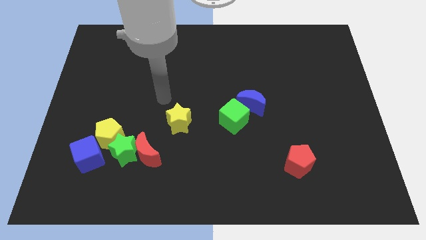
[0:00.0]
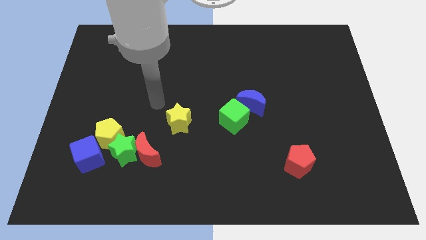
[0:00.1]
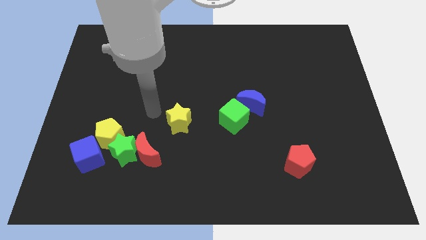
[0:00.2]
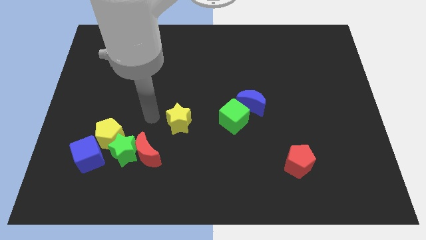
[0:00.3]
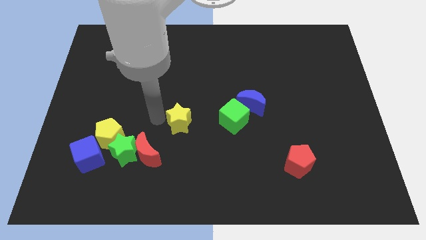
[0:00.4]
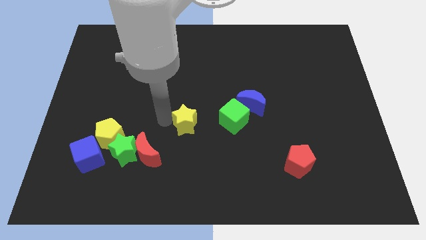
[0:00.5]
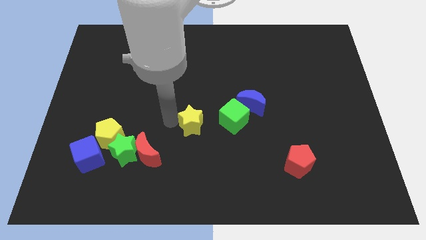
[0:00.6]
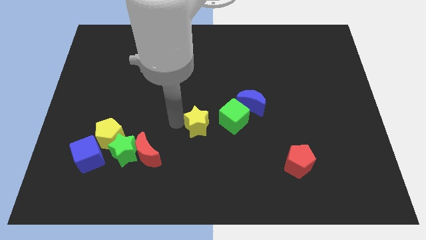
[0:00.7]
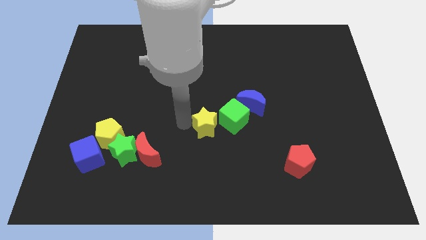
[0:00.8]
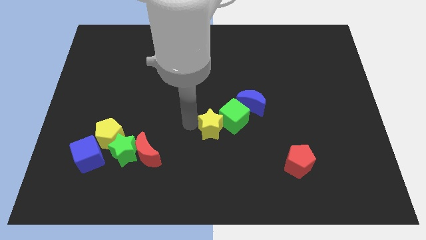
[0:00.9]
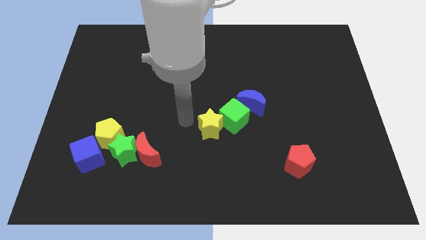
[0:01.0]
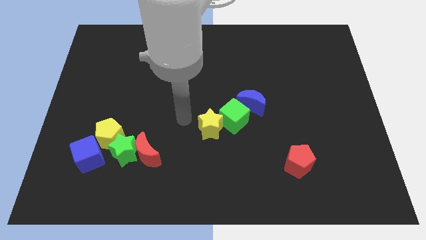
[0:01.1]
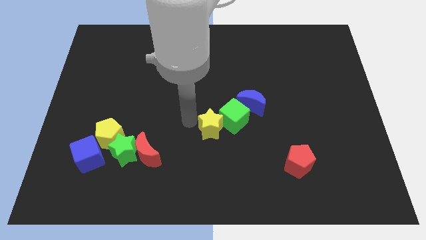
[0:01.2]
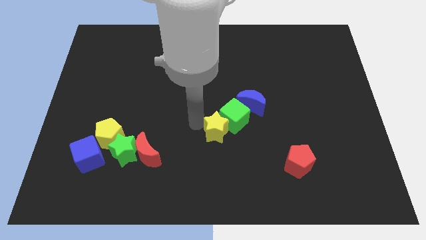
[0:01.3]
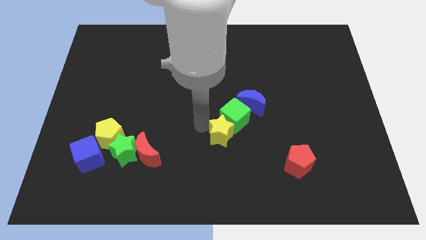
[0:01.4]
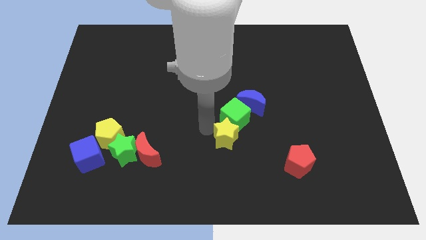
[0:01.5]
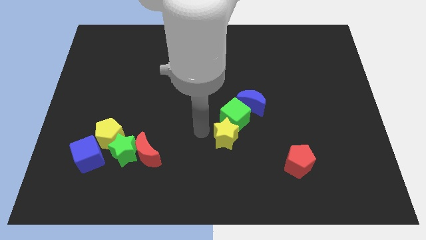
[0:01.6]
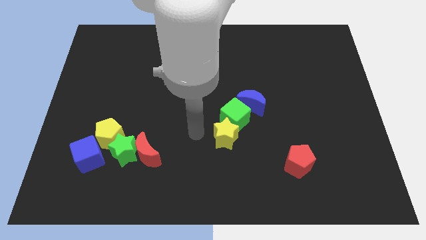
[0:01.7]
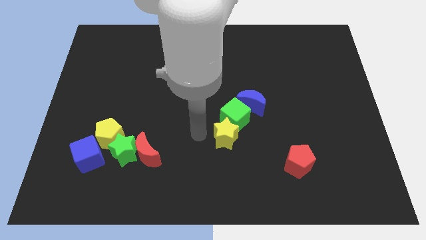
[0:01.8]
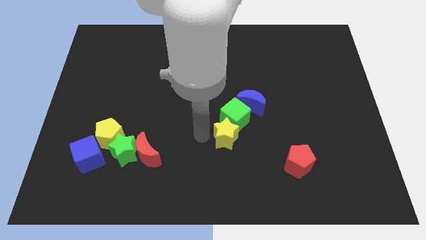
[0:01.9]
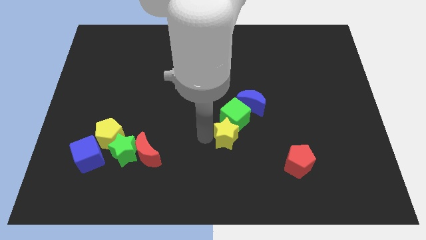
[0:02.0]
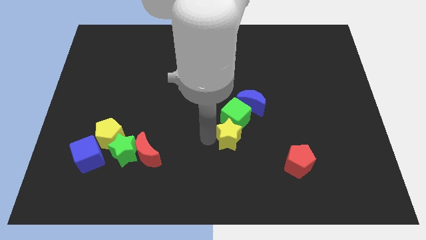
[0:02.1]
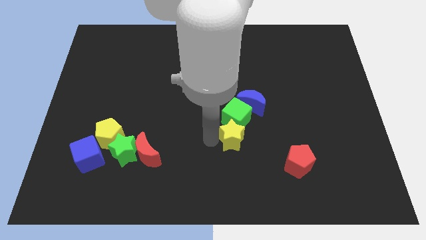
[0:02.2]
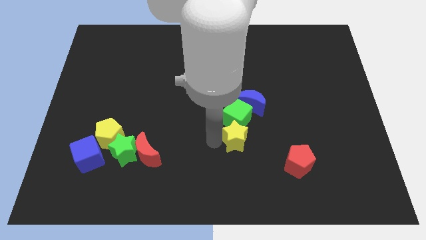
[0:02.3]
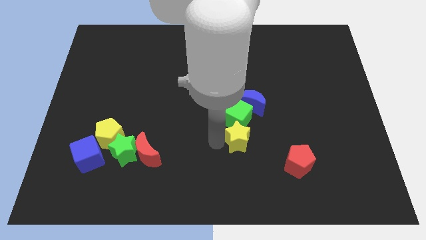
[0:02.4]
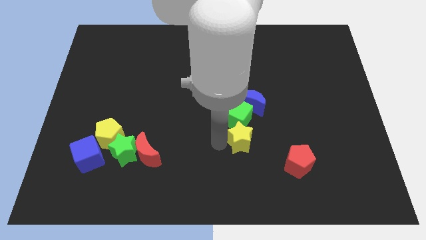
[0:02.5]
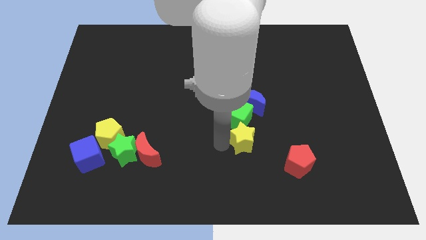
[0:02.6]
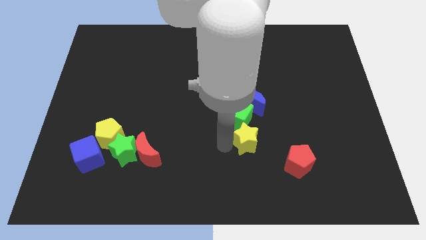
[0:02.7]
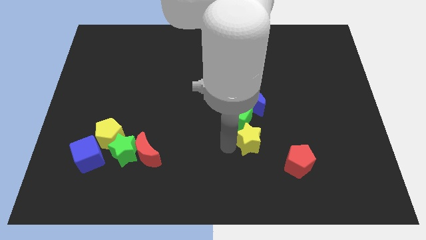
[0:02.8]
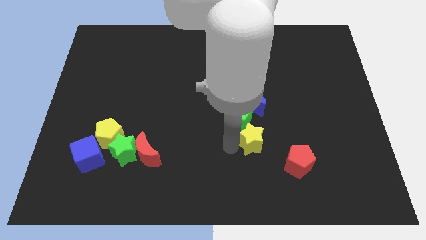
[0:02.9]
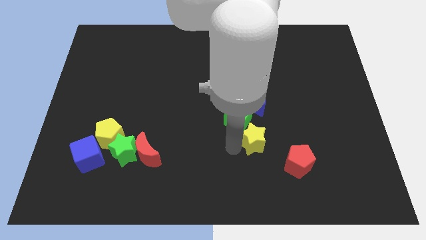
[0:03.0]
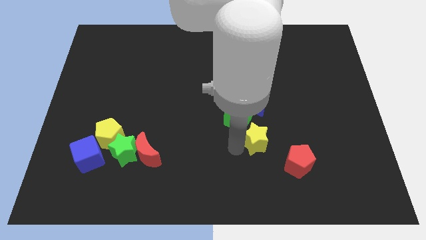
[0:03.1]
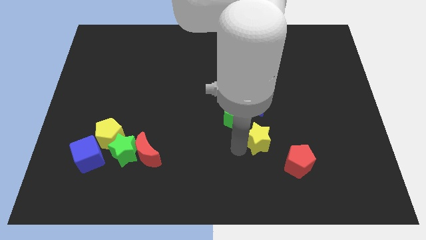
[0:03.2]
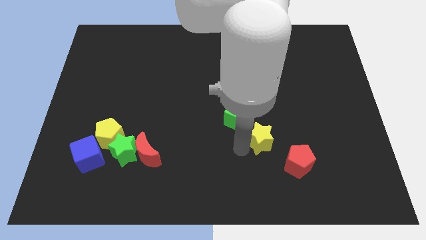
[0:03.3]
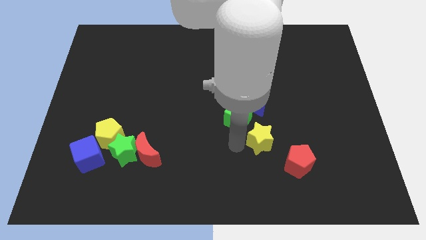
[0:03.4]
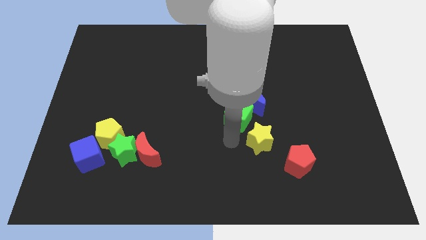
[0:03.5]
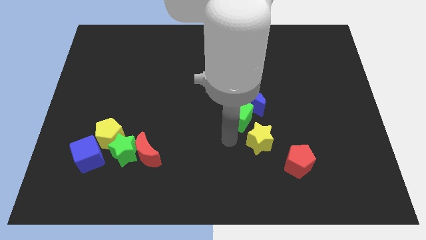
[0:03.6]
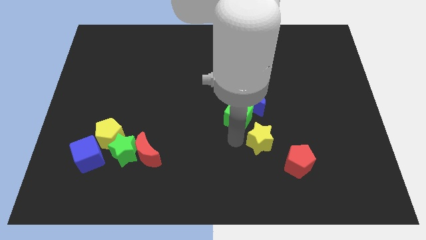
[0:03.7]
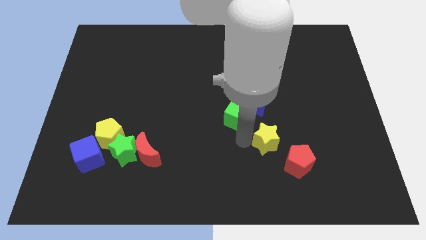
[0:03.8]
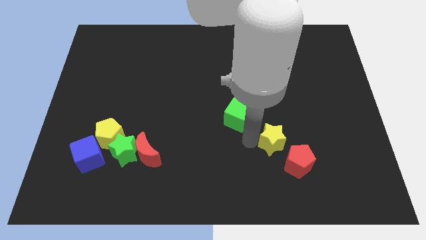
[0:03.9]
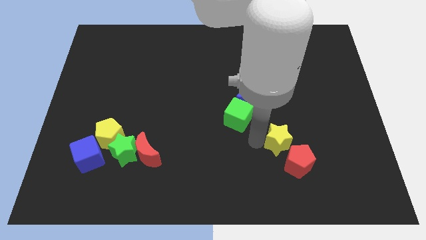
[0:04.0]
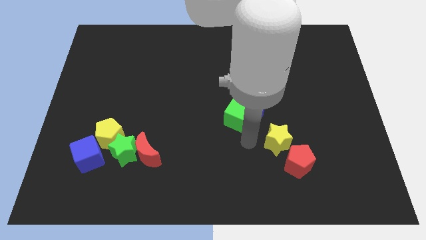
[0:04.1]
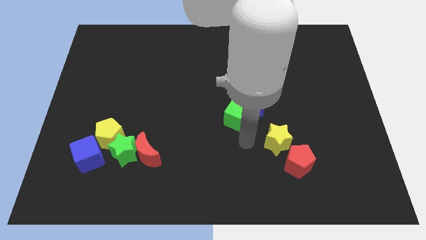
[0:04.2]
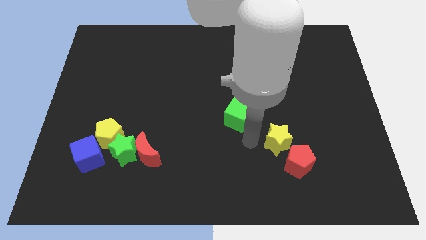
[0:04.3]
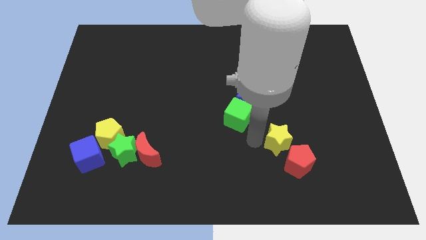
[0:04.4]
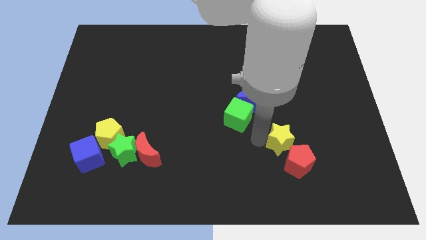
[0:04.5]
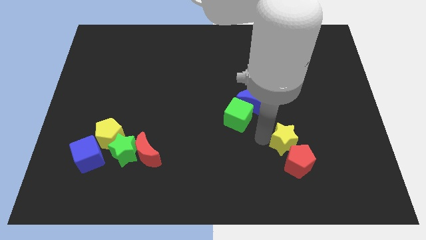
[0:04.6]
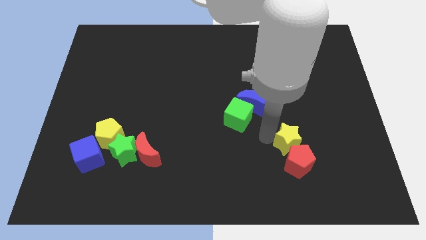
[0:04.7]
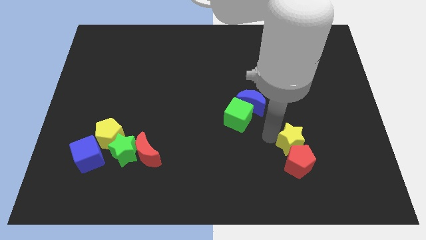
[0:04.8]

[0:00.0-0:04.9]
push the yellow star diagonally up and to the right of the red pentagon

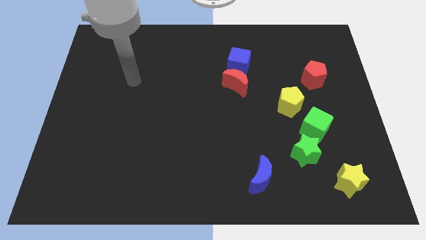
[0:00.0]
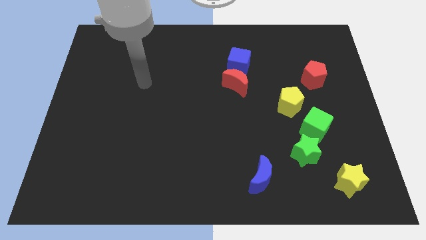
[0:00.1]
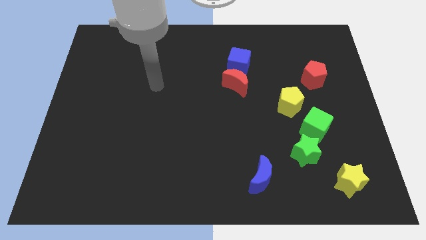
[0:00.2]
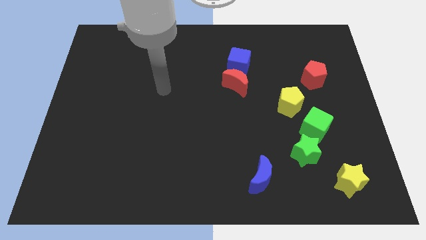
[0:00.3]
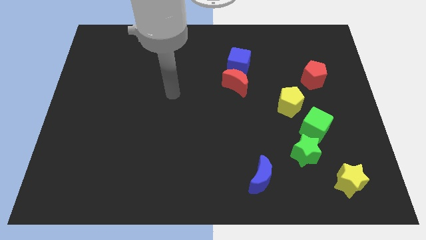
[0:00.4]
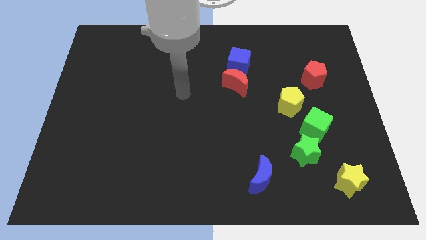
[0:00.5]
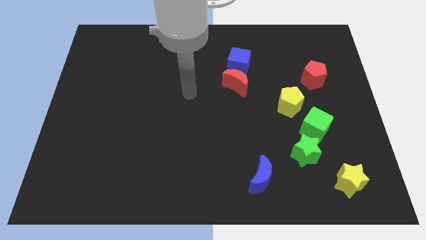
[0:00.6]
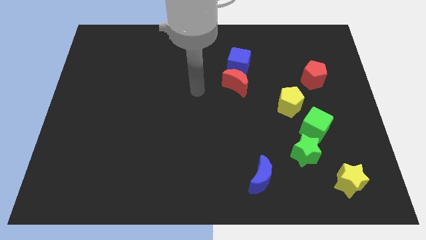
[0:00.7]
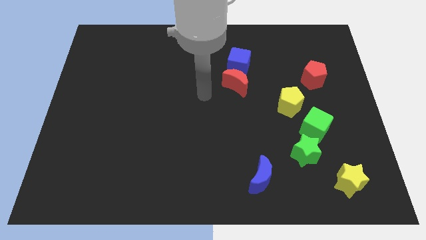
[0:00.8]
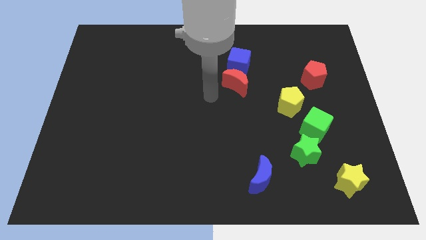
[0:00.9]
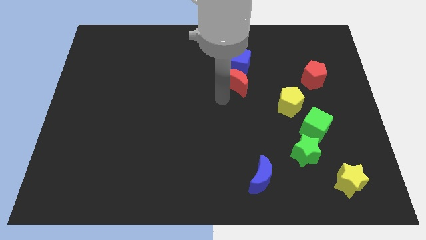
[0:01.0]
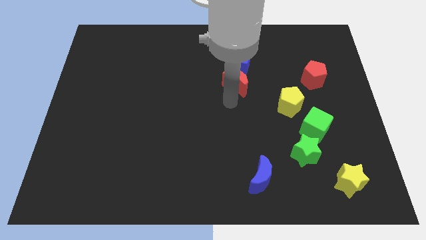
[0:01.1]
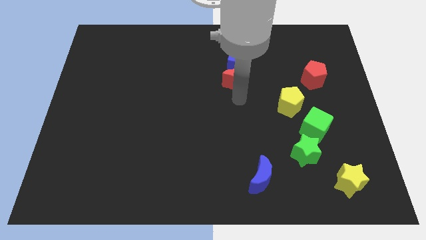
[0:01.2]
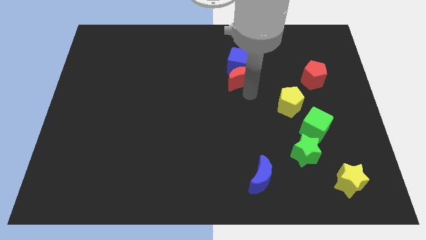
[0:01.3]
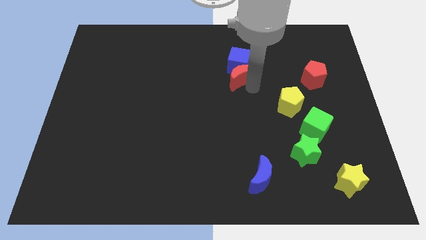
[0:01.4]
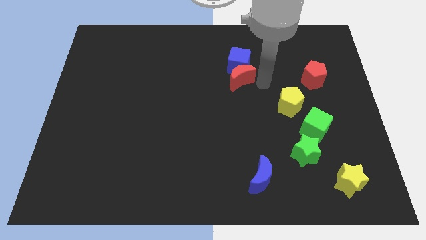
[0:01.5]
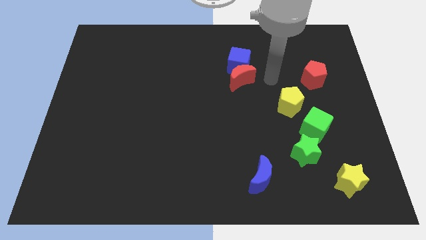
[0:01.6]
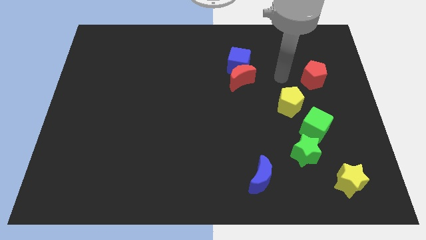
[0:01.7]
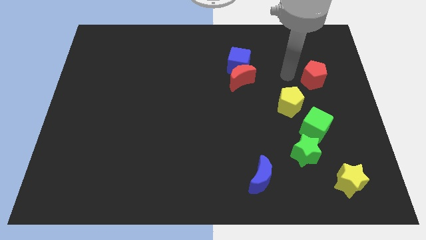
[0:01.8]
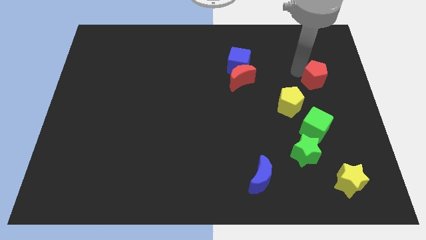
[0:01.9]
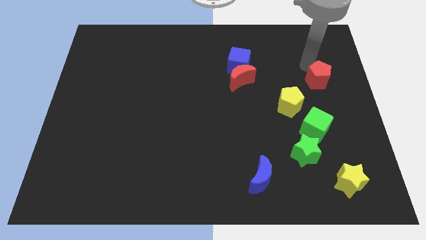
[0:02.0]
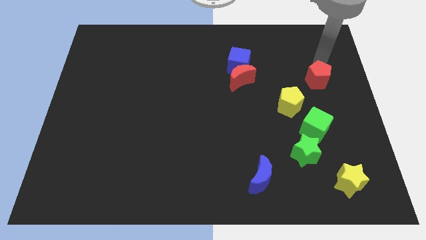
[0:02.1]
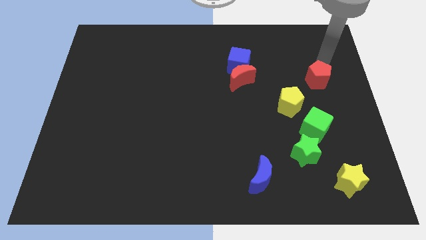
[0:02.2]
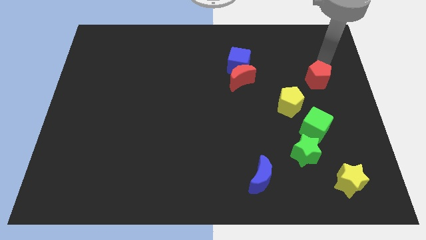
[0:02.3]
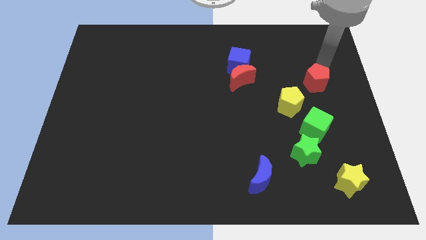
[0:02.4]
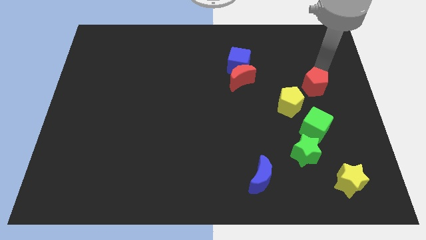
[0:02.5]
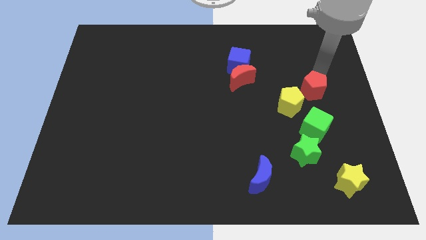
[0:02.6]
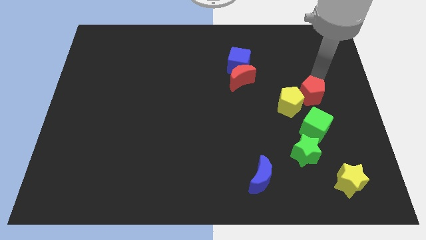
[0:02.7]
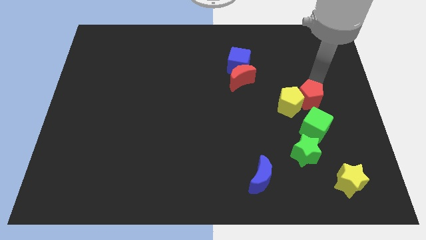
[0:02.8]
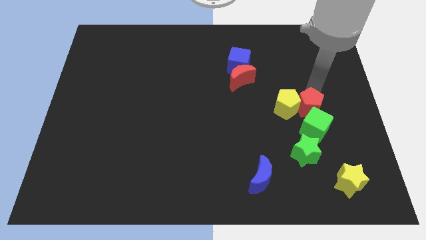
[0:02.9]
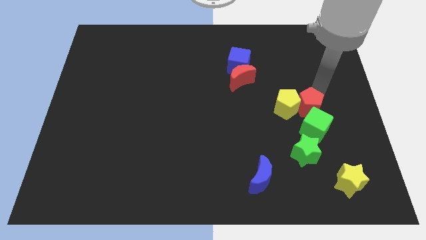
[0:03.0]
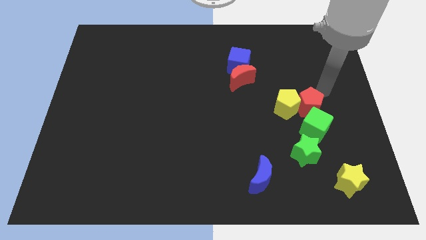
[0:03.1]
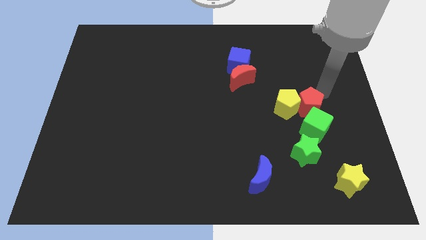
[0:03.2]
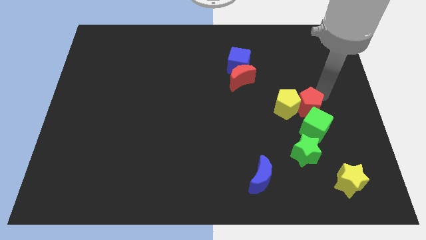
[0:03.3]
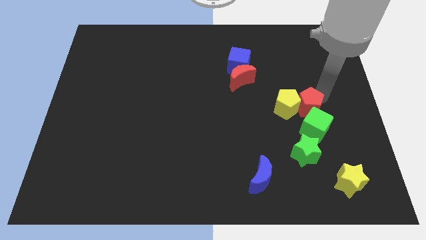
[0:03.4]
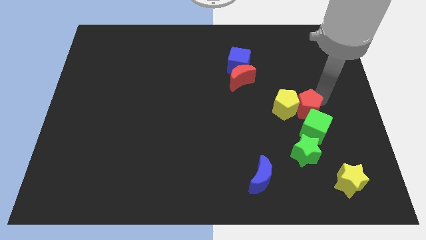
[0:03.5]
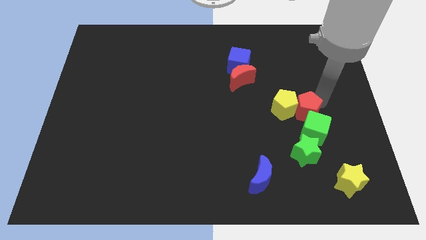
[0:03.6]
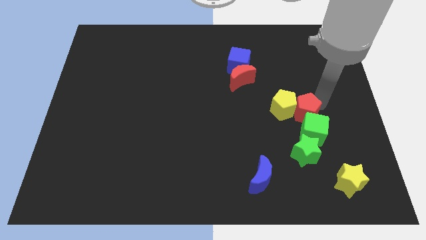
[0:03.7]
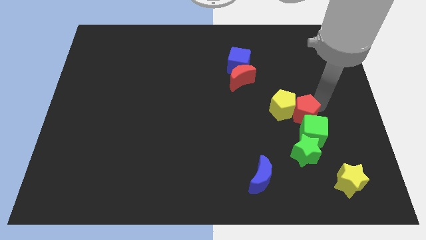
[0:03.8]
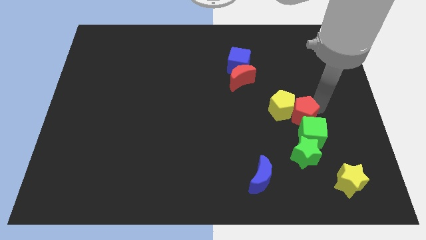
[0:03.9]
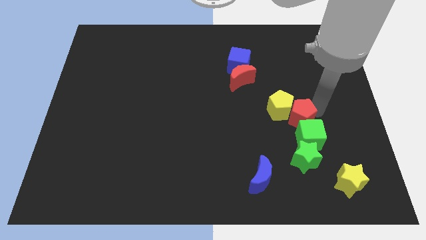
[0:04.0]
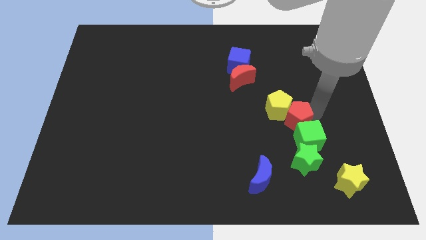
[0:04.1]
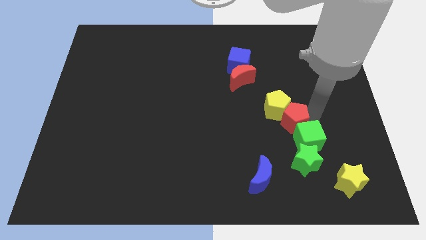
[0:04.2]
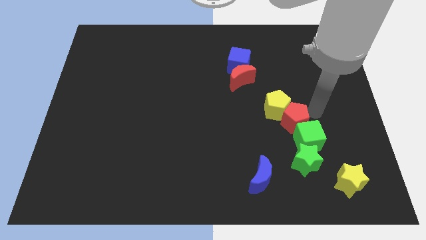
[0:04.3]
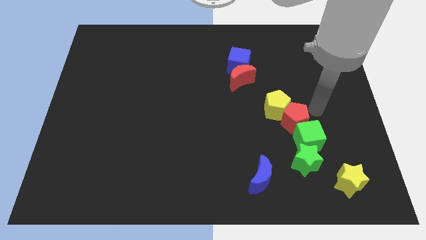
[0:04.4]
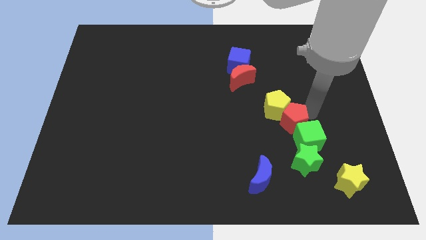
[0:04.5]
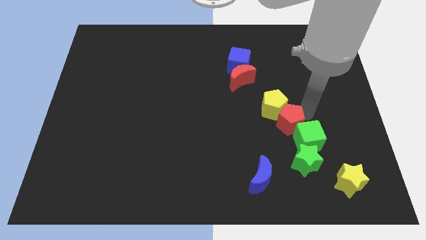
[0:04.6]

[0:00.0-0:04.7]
slide the red pentagon to the left side of the green cube
